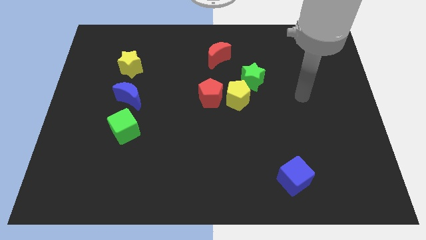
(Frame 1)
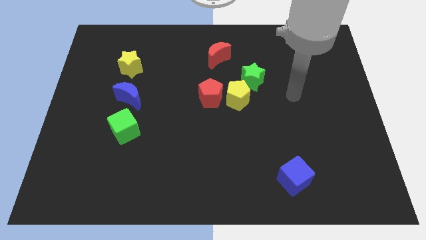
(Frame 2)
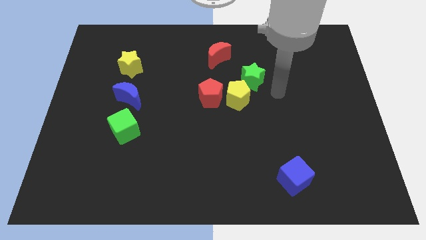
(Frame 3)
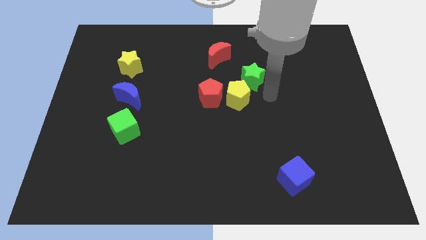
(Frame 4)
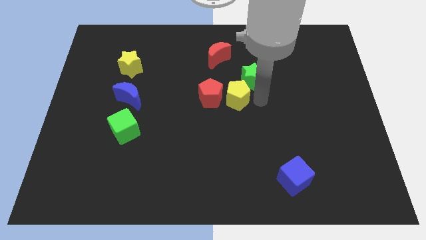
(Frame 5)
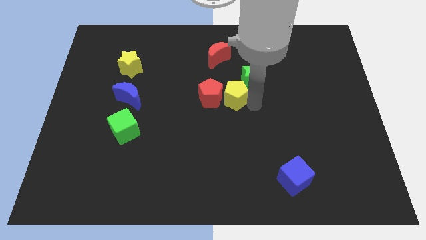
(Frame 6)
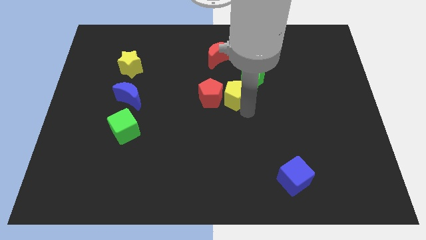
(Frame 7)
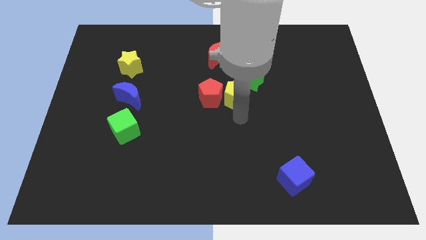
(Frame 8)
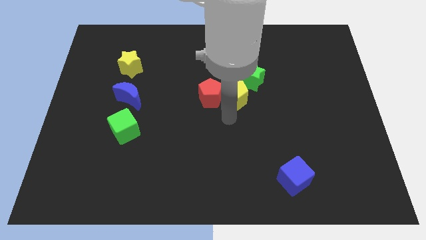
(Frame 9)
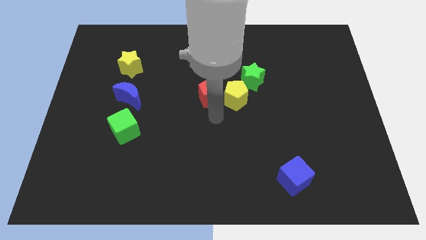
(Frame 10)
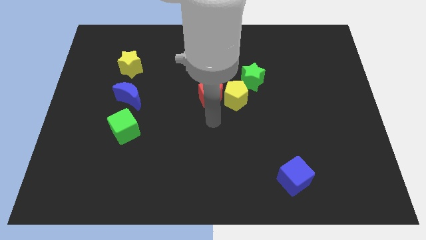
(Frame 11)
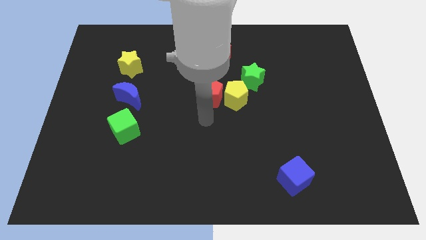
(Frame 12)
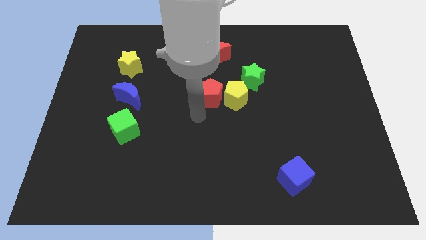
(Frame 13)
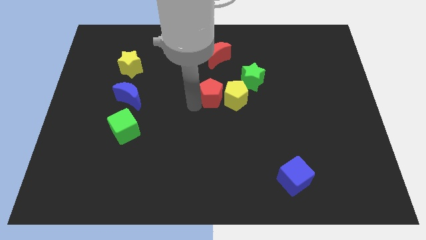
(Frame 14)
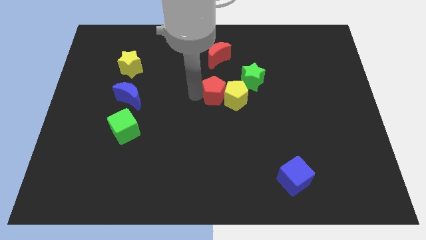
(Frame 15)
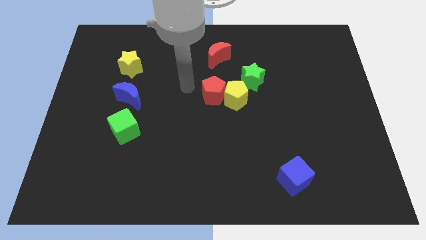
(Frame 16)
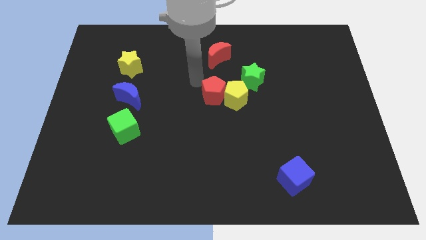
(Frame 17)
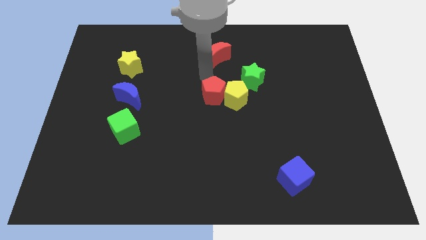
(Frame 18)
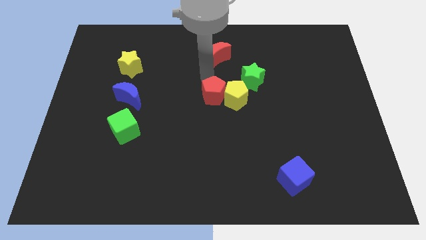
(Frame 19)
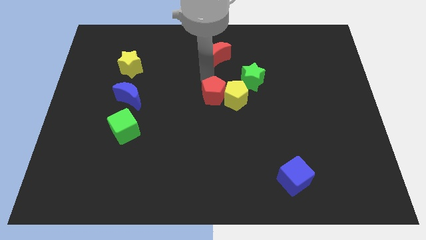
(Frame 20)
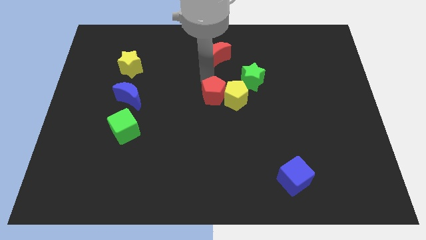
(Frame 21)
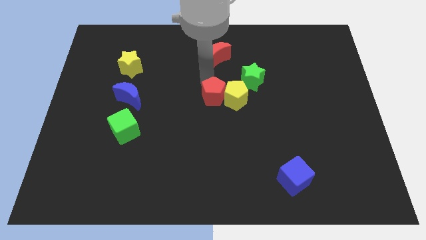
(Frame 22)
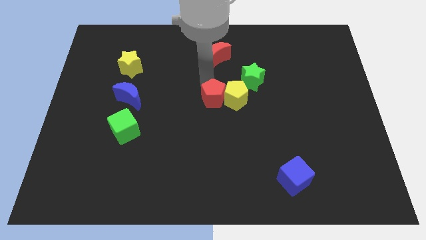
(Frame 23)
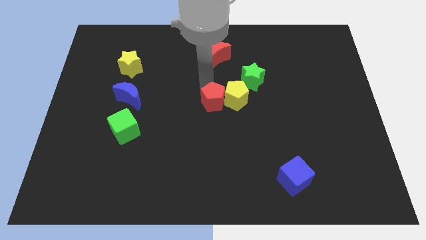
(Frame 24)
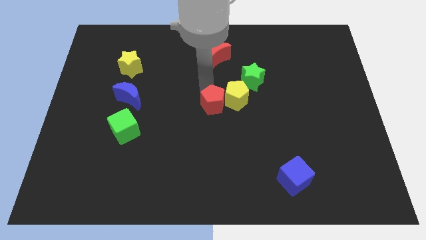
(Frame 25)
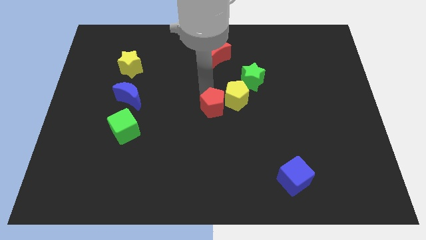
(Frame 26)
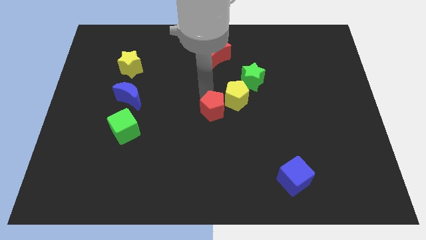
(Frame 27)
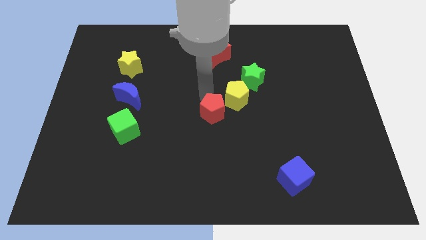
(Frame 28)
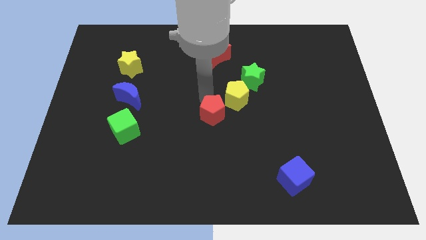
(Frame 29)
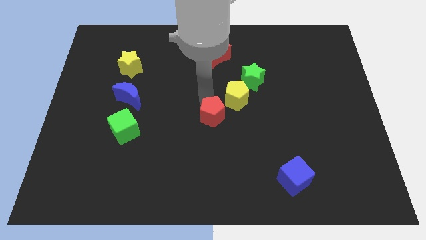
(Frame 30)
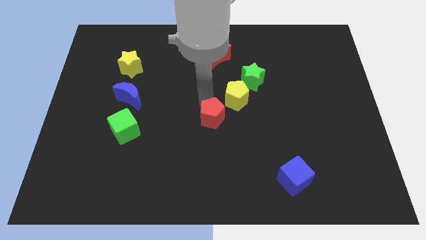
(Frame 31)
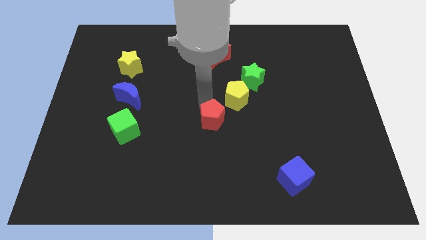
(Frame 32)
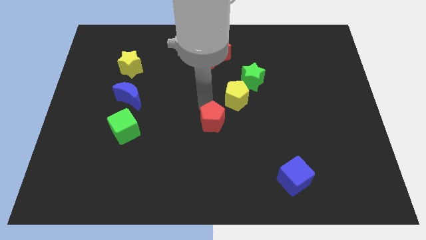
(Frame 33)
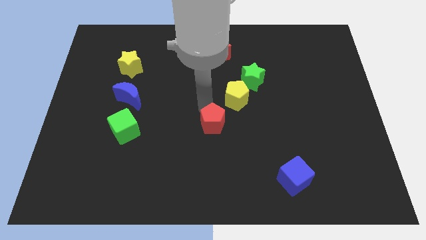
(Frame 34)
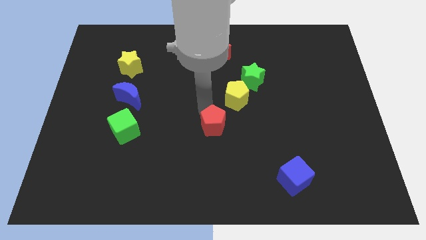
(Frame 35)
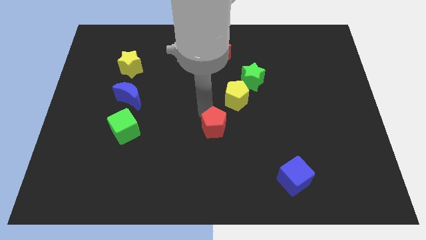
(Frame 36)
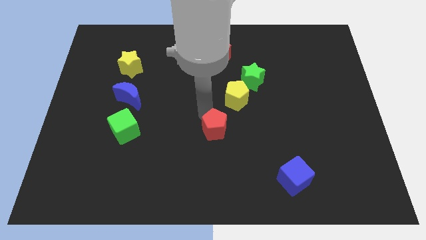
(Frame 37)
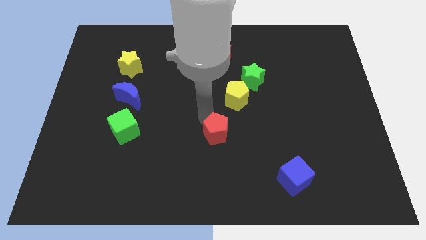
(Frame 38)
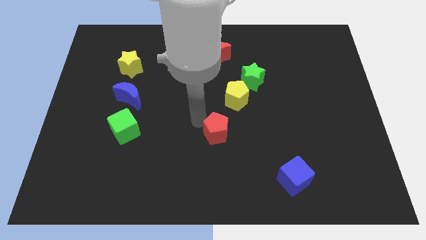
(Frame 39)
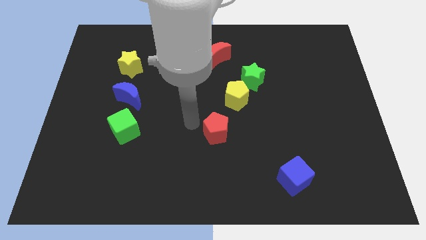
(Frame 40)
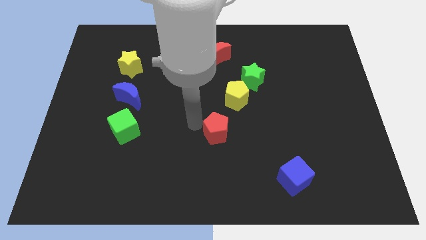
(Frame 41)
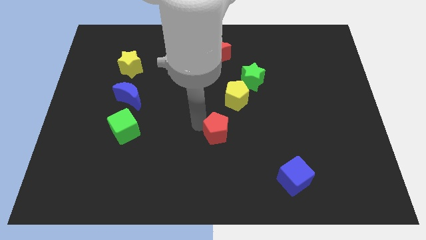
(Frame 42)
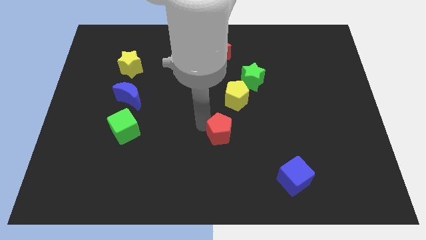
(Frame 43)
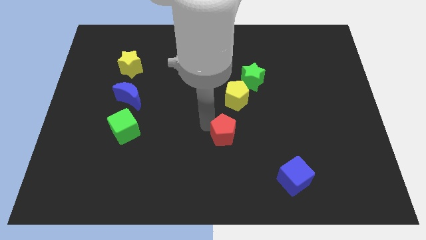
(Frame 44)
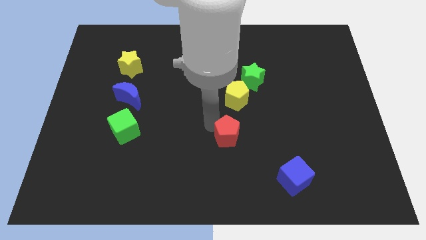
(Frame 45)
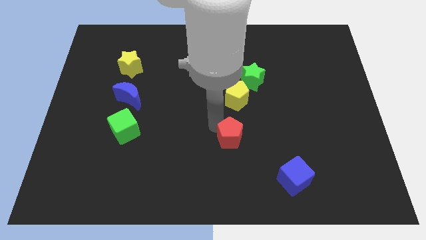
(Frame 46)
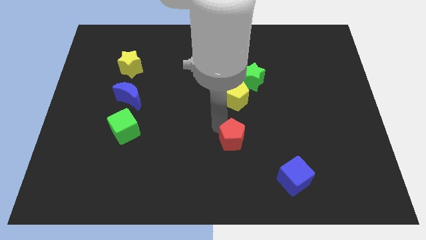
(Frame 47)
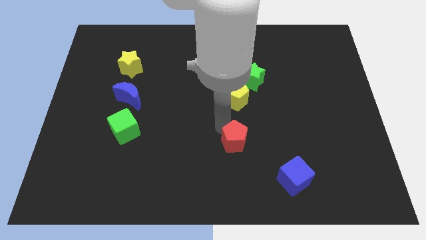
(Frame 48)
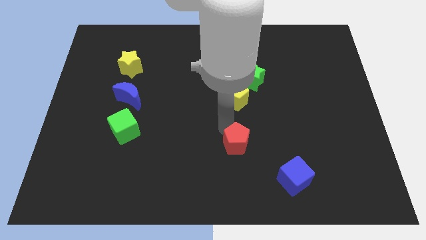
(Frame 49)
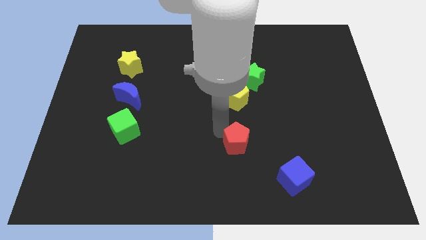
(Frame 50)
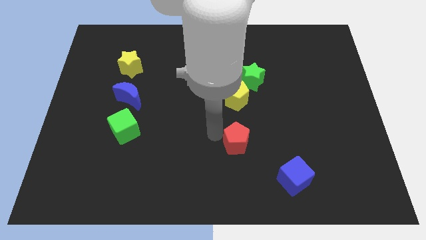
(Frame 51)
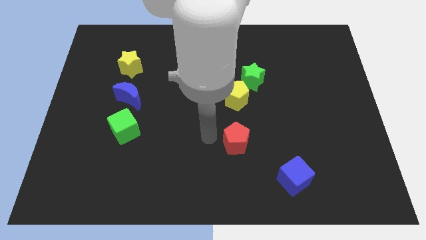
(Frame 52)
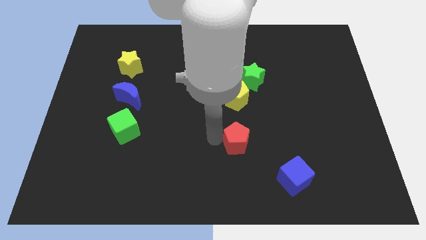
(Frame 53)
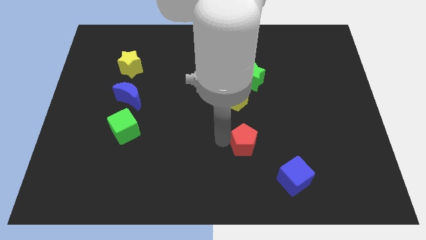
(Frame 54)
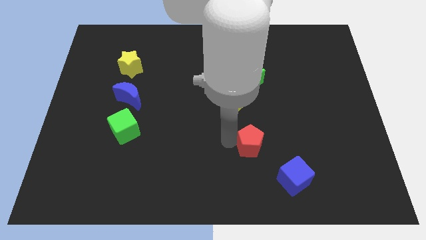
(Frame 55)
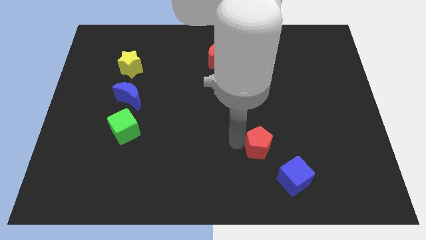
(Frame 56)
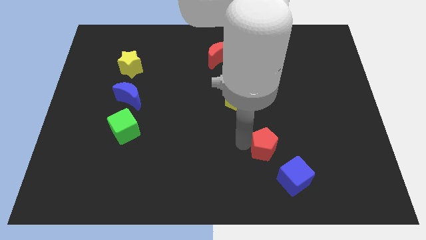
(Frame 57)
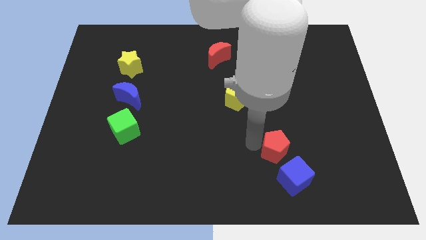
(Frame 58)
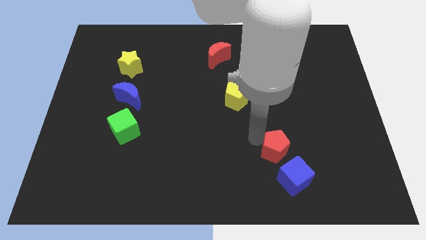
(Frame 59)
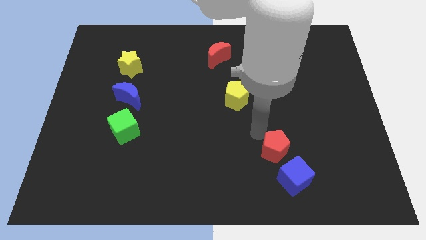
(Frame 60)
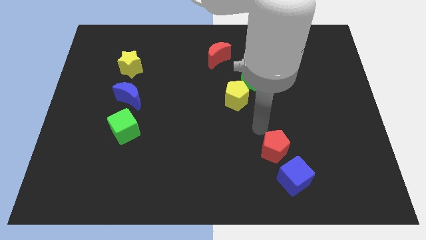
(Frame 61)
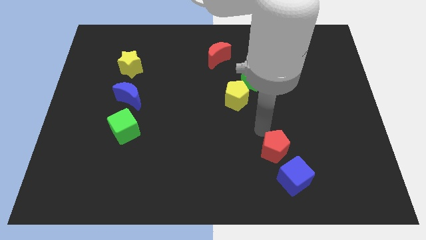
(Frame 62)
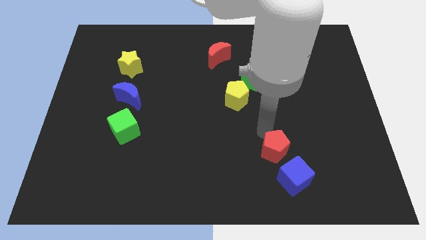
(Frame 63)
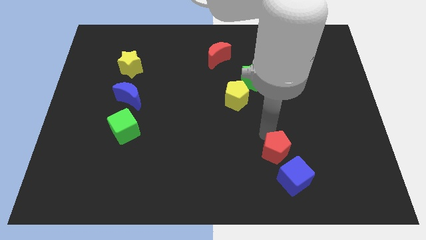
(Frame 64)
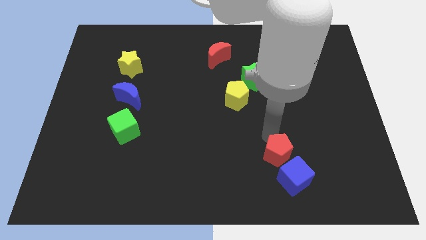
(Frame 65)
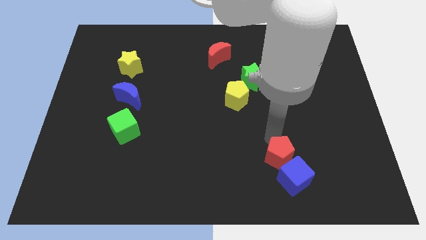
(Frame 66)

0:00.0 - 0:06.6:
put the red pentagon close to the blue cube
